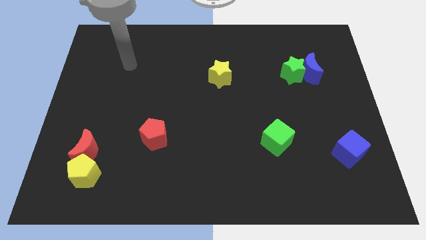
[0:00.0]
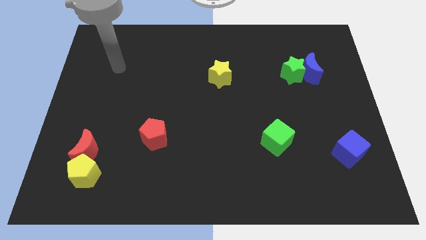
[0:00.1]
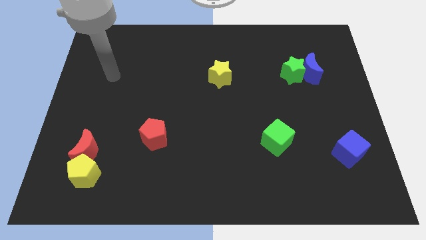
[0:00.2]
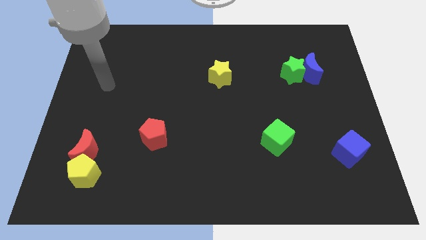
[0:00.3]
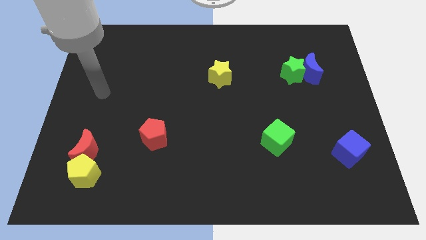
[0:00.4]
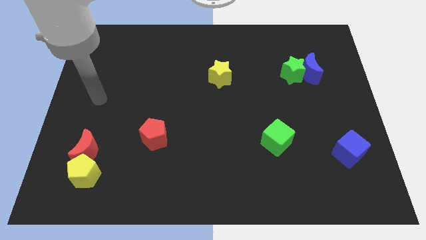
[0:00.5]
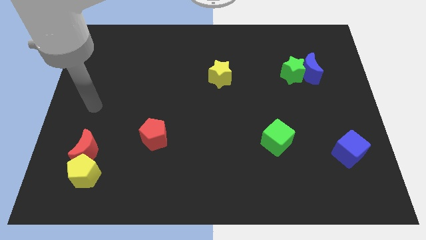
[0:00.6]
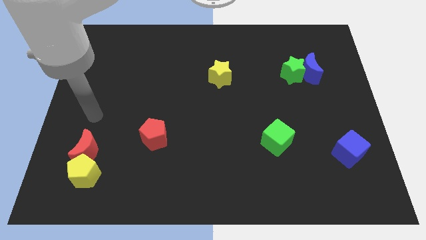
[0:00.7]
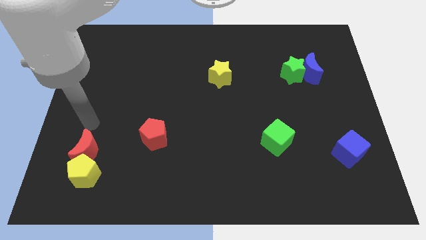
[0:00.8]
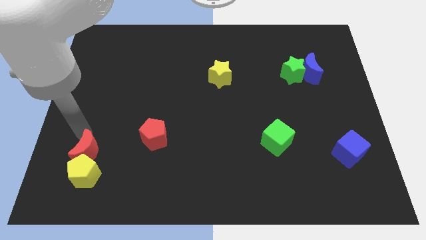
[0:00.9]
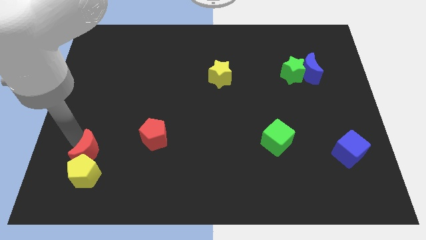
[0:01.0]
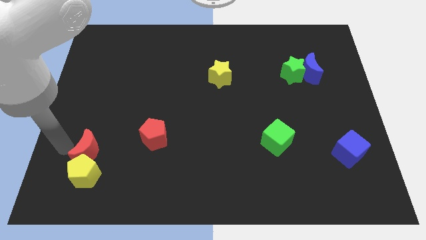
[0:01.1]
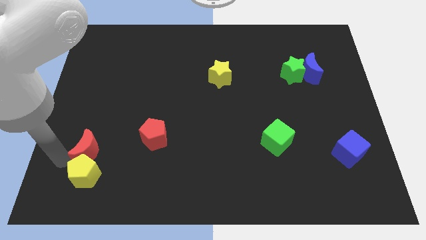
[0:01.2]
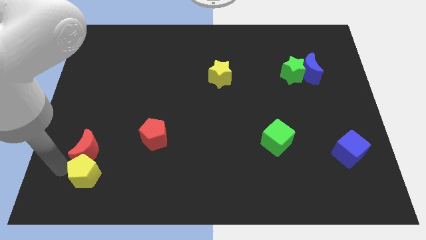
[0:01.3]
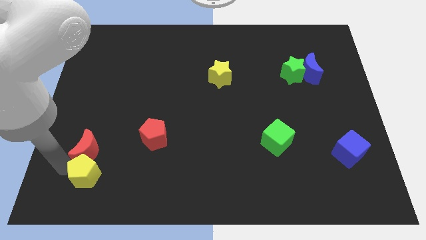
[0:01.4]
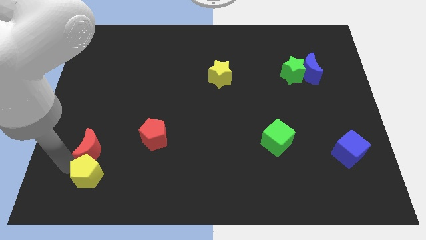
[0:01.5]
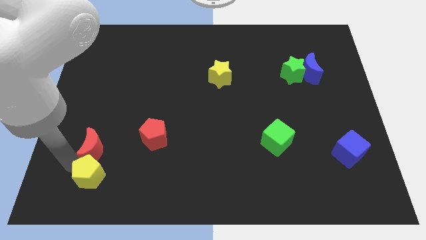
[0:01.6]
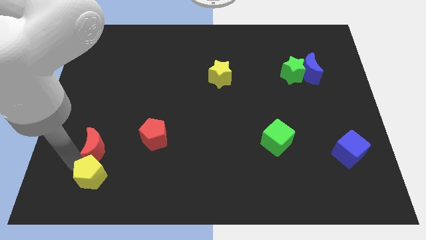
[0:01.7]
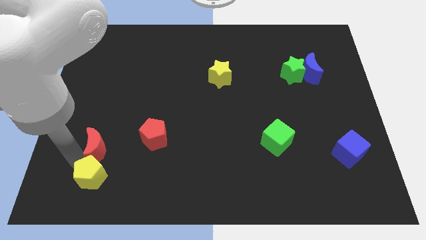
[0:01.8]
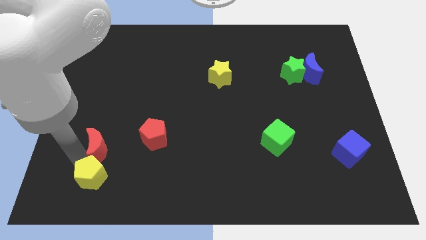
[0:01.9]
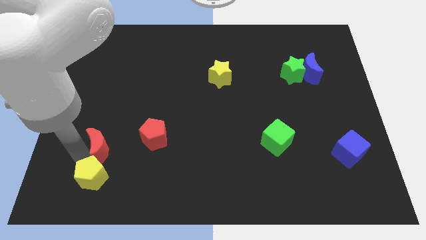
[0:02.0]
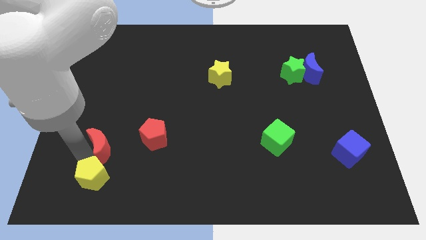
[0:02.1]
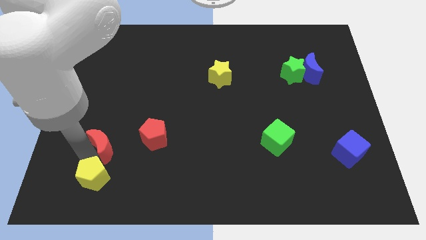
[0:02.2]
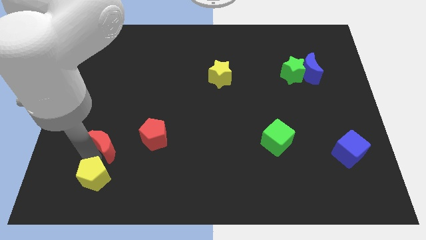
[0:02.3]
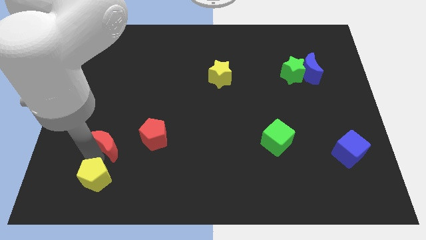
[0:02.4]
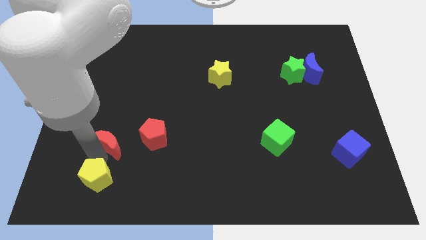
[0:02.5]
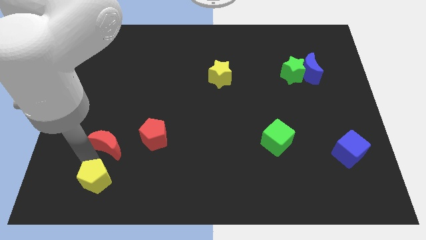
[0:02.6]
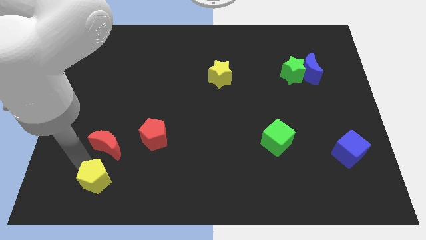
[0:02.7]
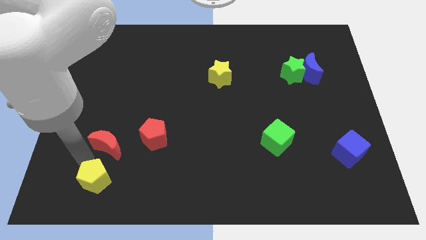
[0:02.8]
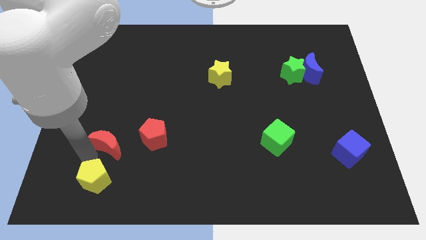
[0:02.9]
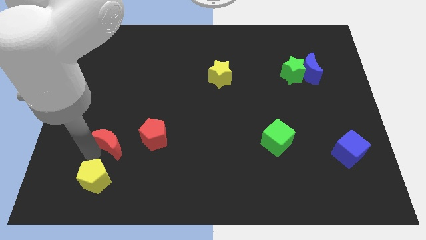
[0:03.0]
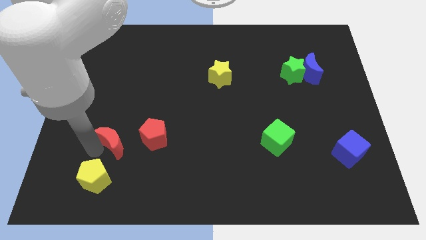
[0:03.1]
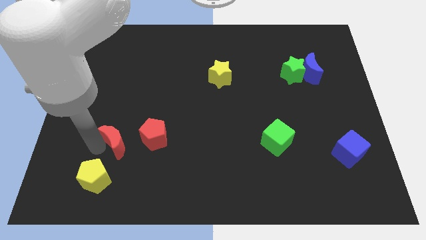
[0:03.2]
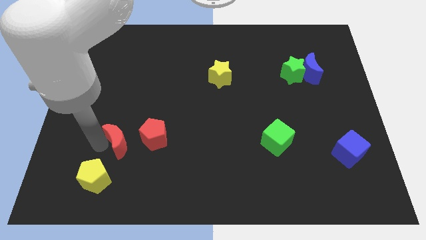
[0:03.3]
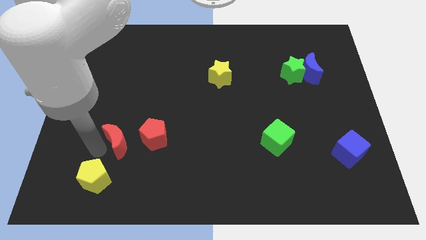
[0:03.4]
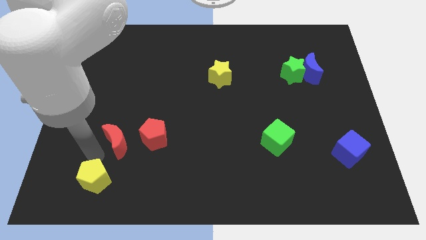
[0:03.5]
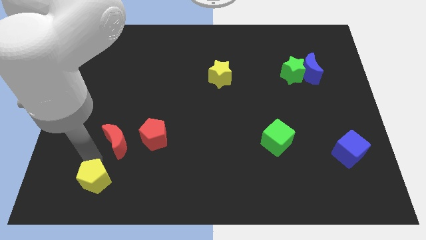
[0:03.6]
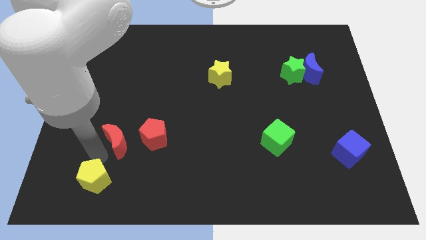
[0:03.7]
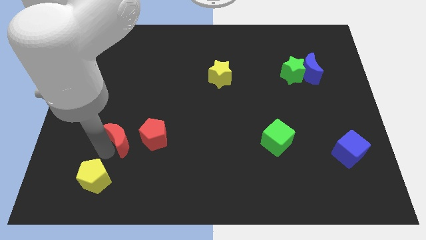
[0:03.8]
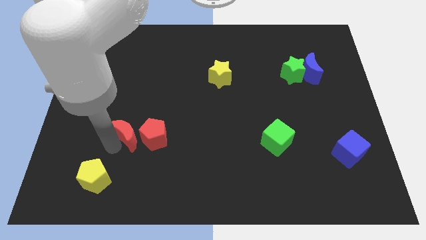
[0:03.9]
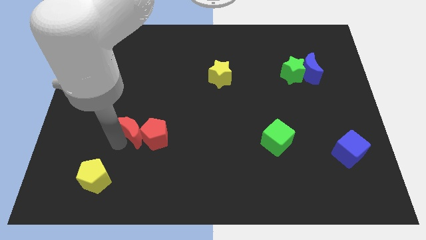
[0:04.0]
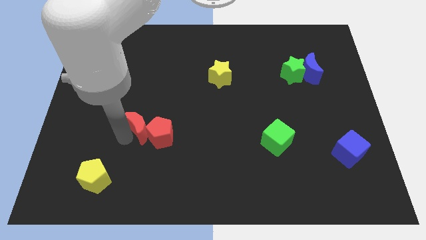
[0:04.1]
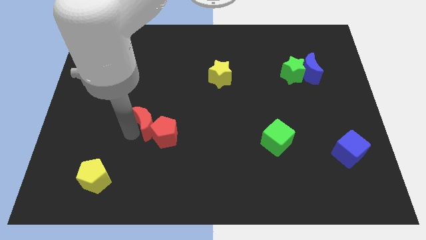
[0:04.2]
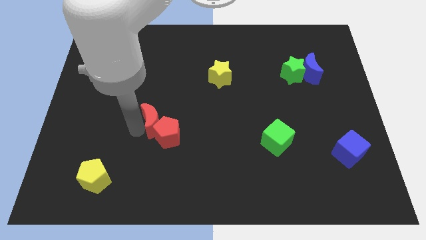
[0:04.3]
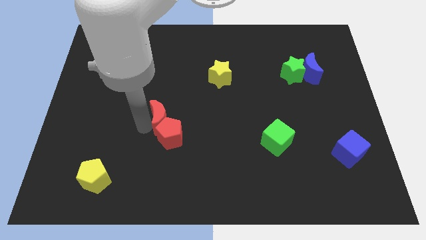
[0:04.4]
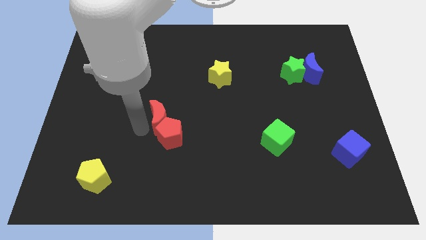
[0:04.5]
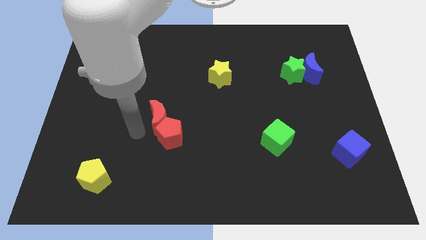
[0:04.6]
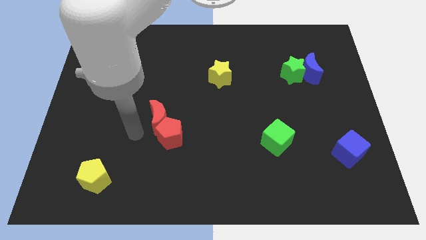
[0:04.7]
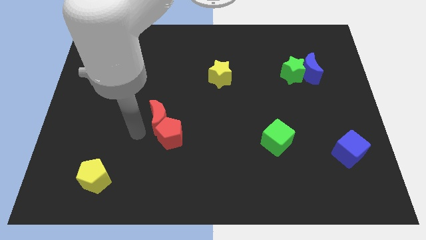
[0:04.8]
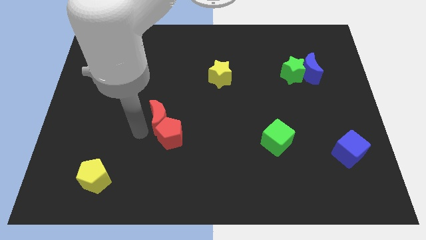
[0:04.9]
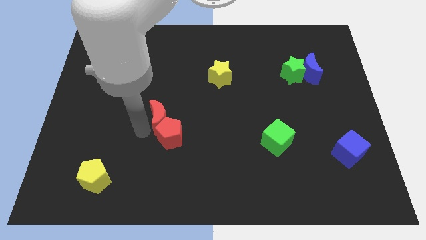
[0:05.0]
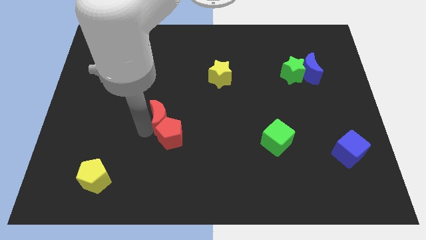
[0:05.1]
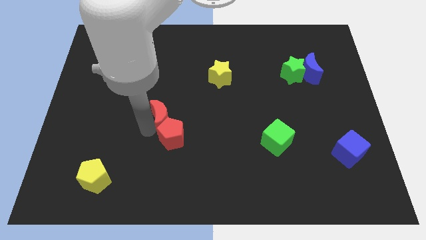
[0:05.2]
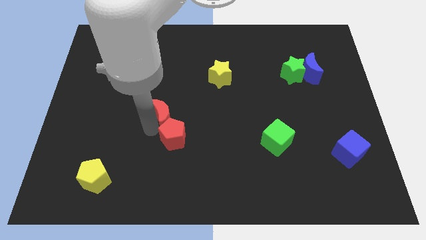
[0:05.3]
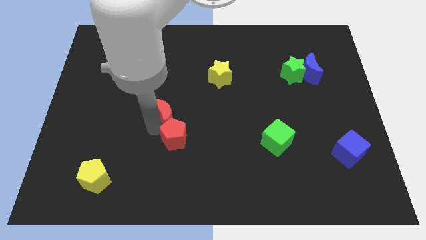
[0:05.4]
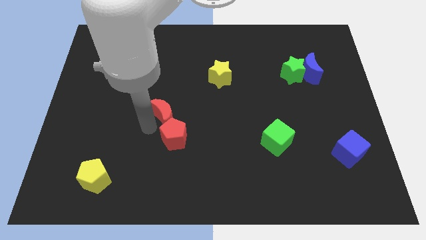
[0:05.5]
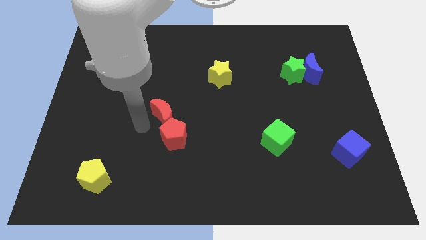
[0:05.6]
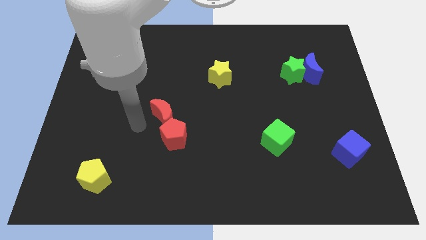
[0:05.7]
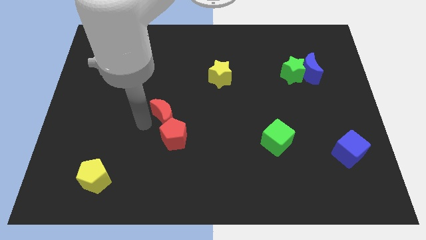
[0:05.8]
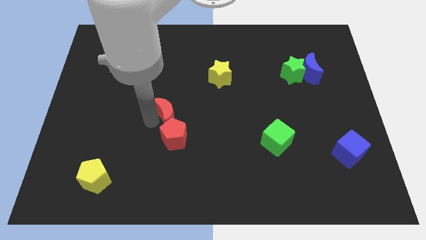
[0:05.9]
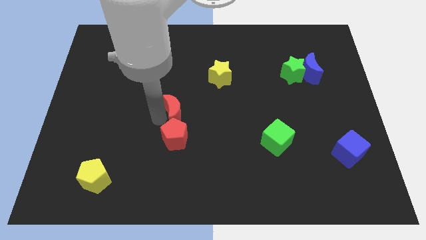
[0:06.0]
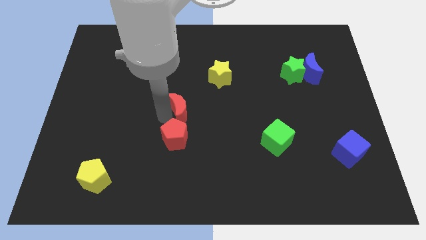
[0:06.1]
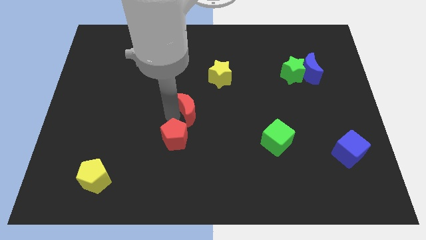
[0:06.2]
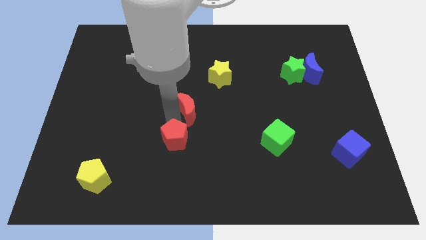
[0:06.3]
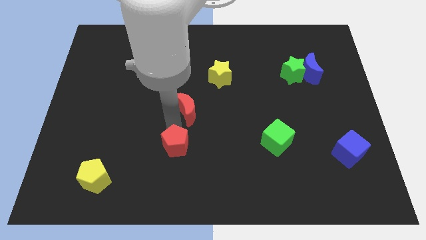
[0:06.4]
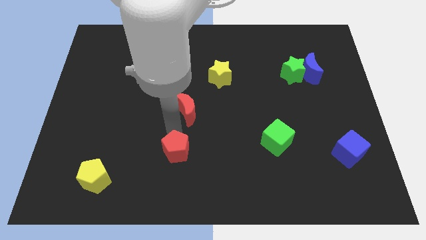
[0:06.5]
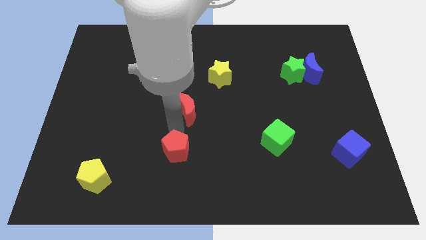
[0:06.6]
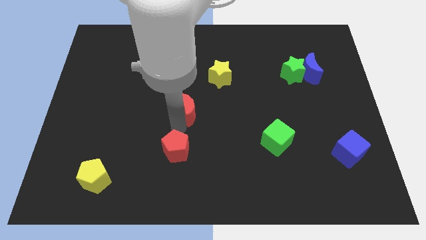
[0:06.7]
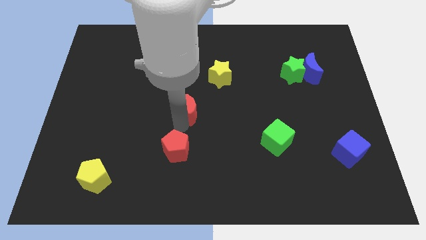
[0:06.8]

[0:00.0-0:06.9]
push the red moon to the bottom left of the yellow star

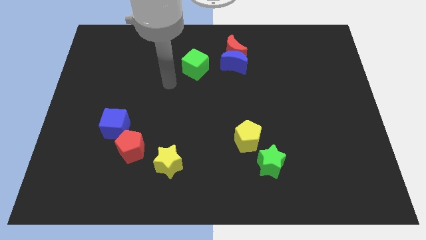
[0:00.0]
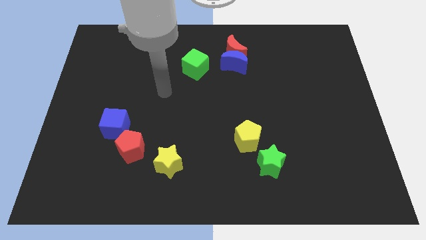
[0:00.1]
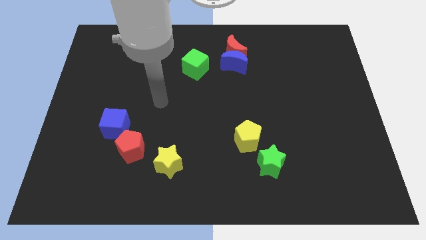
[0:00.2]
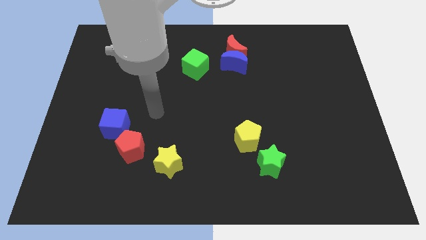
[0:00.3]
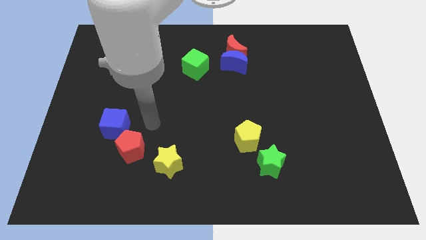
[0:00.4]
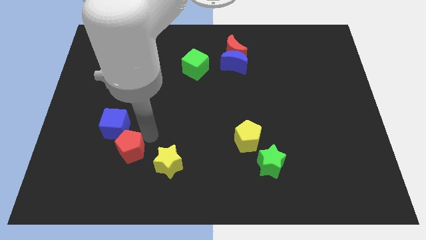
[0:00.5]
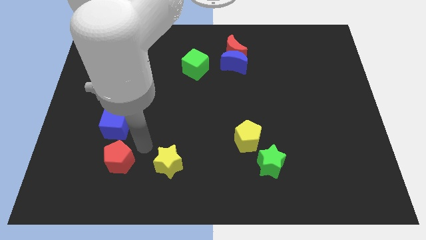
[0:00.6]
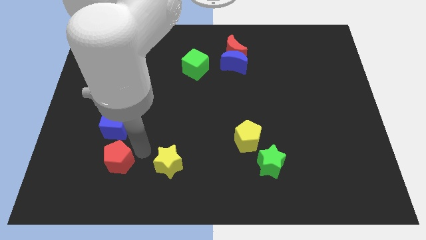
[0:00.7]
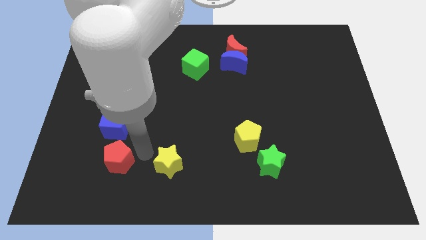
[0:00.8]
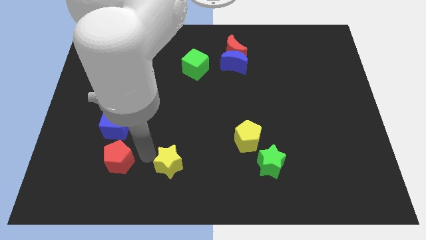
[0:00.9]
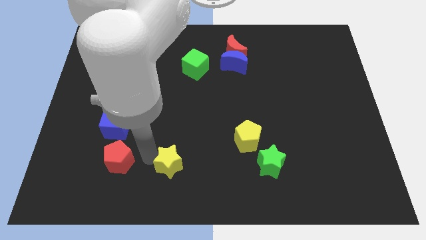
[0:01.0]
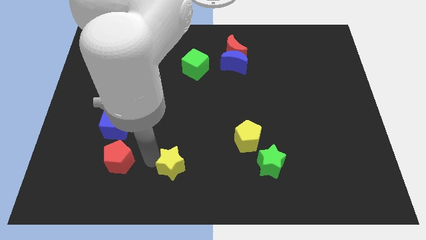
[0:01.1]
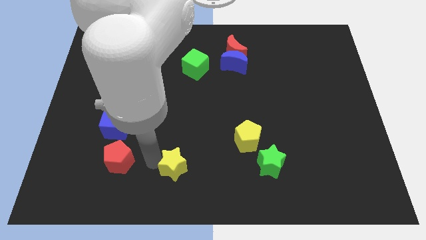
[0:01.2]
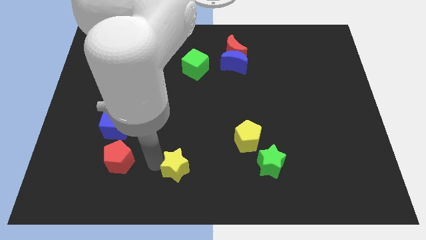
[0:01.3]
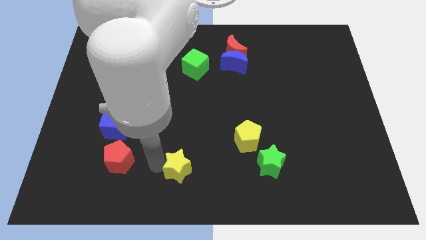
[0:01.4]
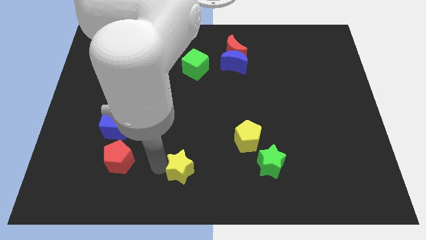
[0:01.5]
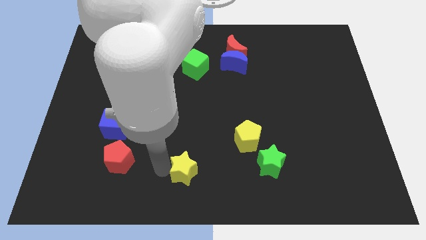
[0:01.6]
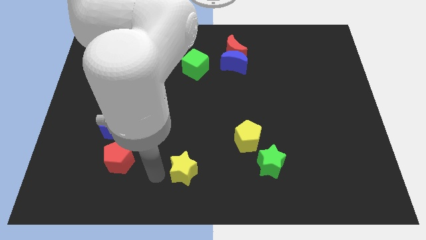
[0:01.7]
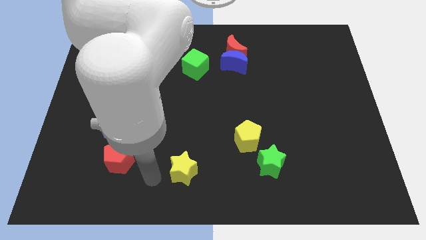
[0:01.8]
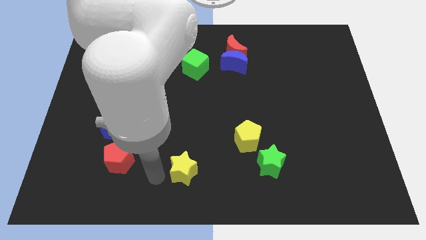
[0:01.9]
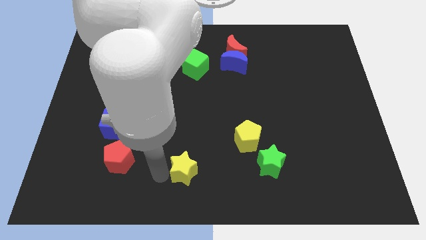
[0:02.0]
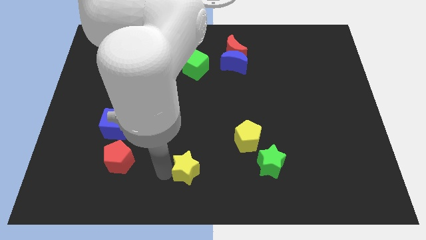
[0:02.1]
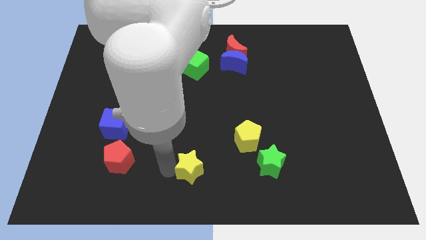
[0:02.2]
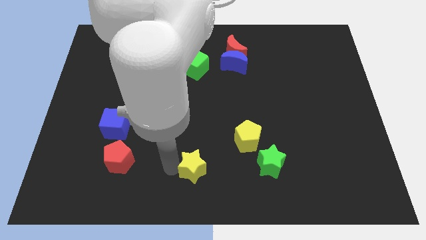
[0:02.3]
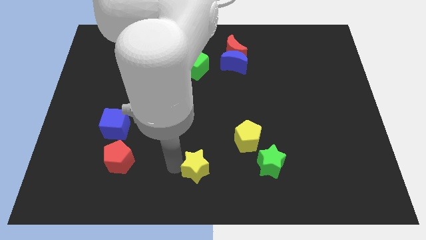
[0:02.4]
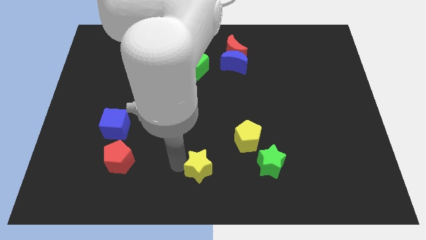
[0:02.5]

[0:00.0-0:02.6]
push the yellow star diagonally down and to the left of the yellow pentagon
